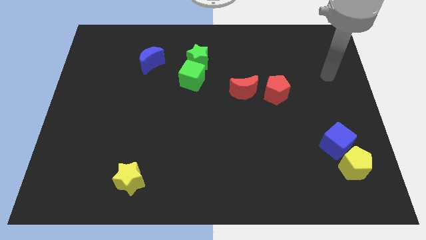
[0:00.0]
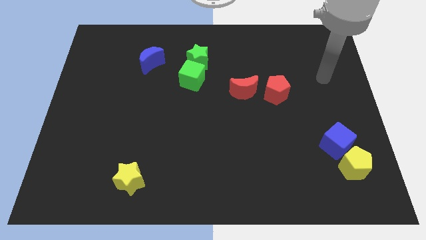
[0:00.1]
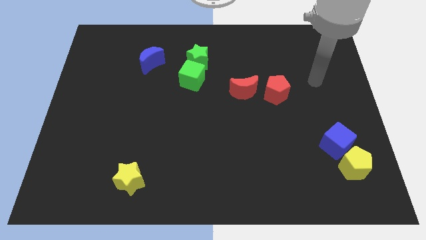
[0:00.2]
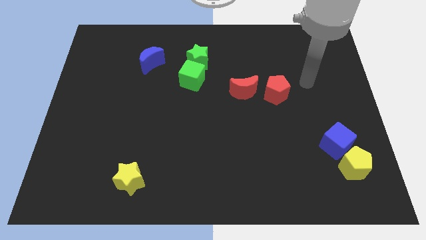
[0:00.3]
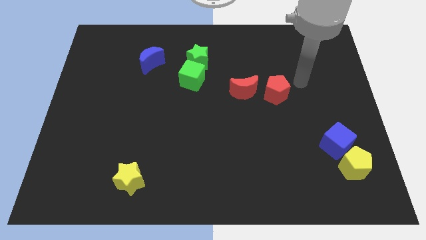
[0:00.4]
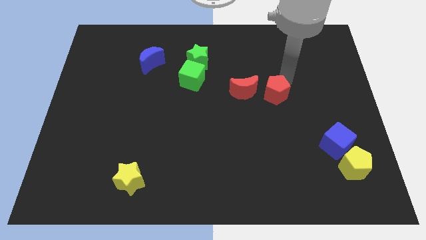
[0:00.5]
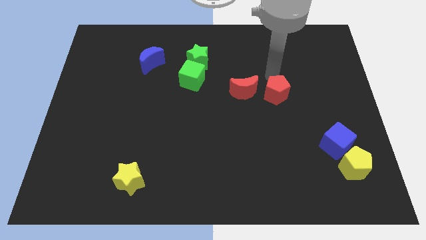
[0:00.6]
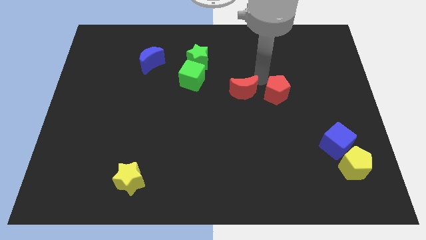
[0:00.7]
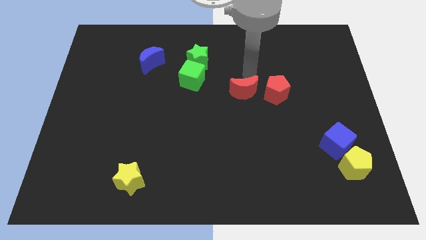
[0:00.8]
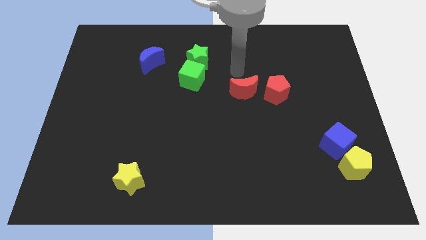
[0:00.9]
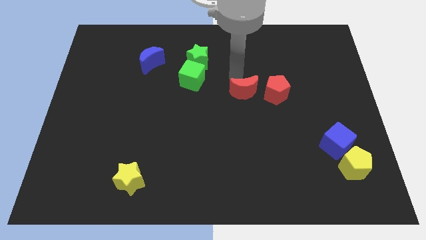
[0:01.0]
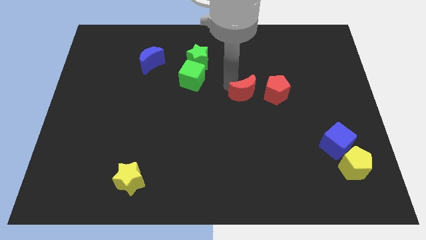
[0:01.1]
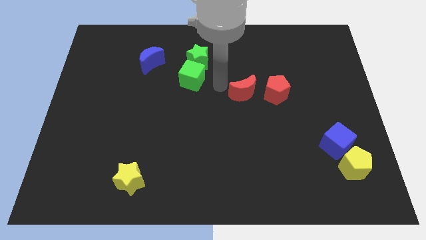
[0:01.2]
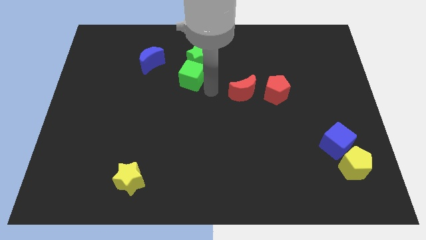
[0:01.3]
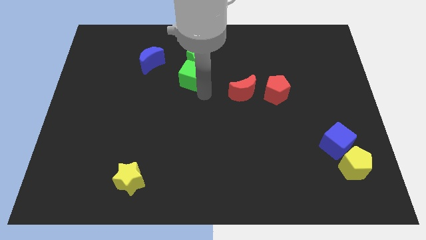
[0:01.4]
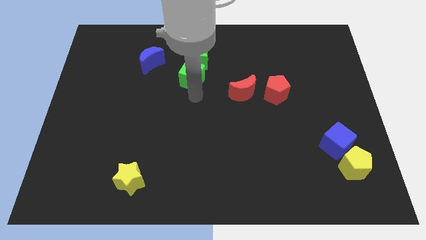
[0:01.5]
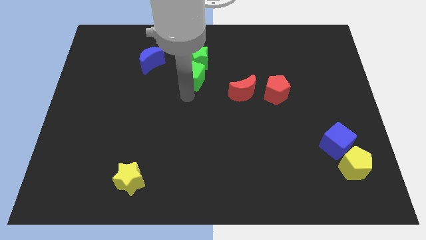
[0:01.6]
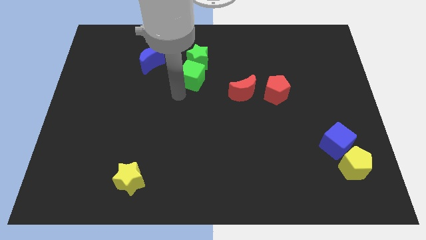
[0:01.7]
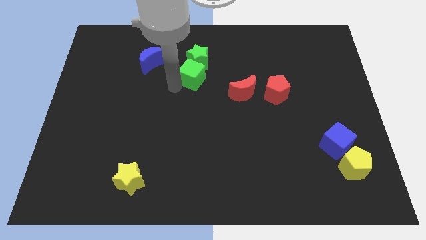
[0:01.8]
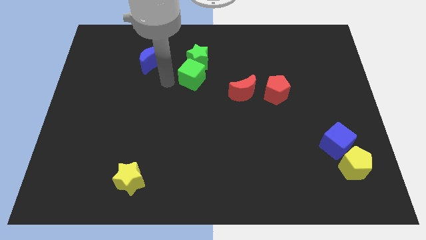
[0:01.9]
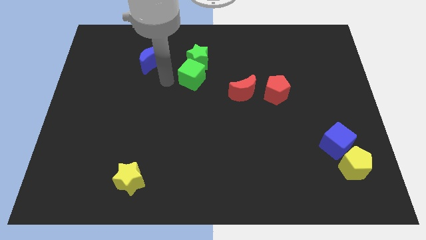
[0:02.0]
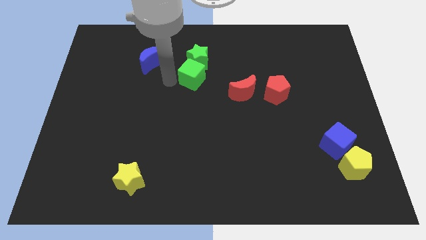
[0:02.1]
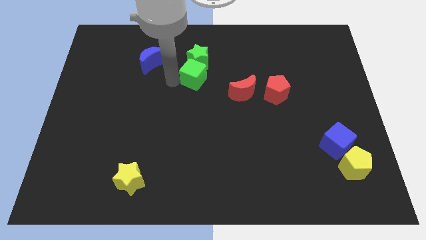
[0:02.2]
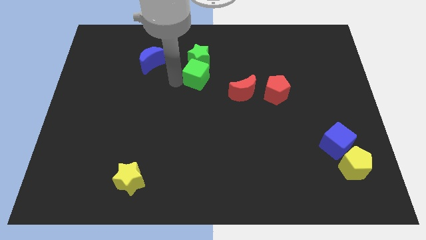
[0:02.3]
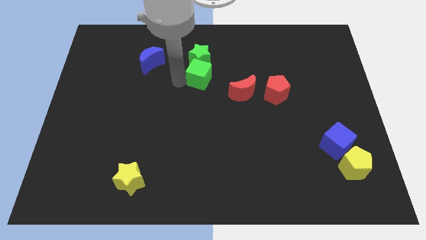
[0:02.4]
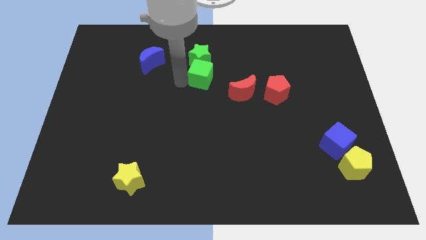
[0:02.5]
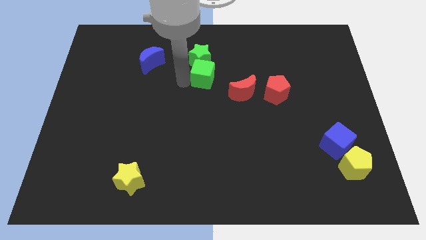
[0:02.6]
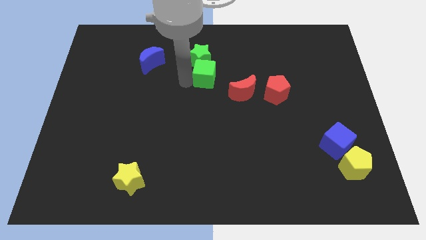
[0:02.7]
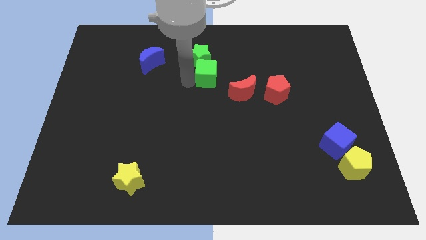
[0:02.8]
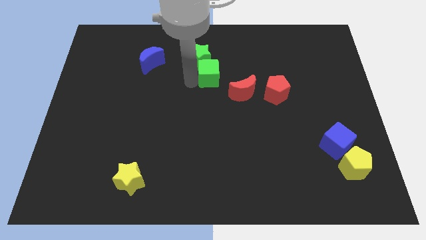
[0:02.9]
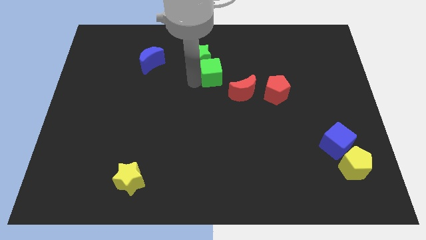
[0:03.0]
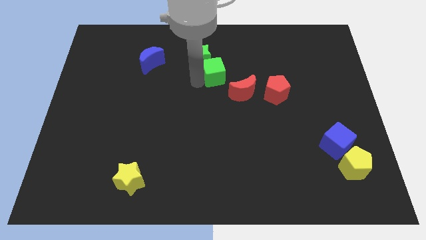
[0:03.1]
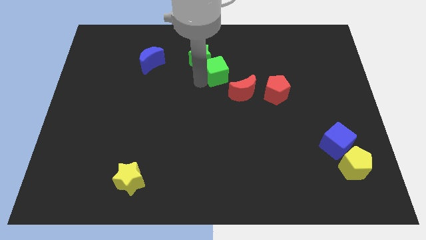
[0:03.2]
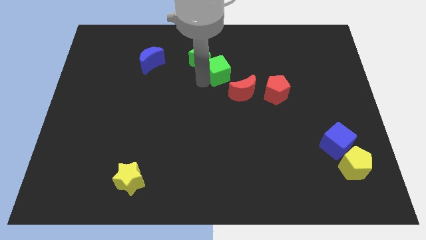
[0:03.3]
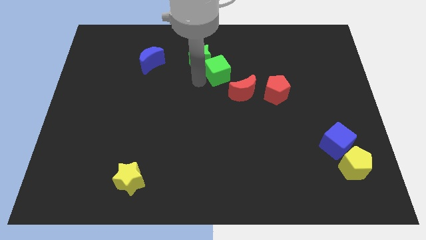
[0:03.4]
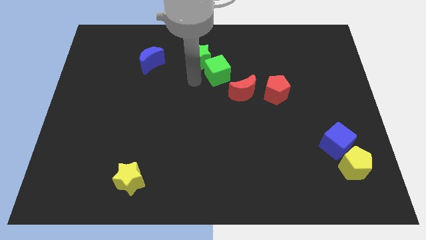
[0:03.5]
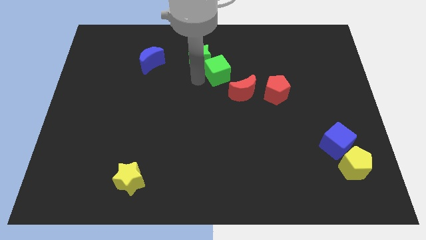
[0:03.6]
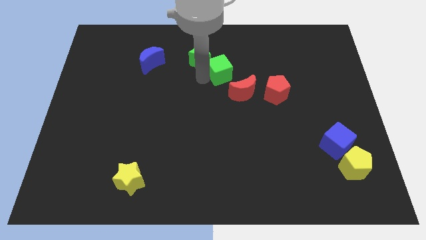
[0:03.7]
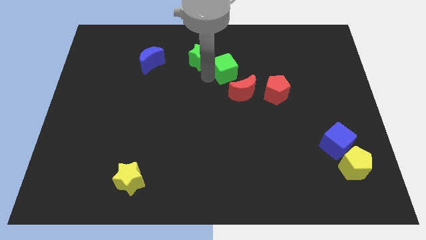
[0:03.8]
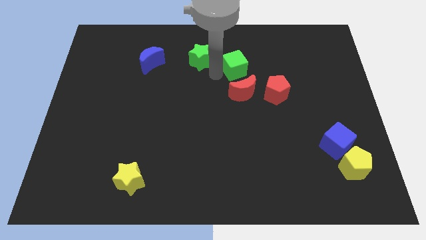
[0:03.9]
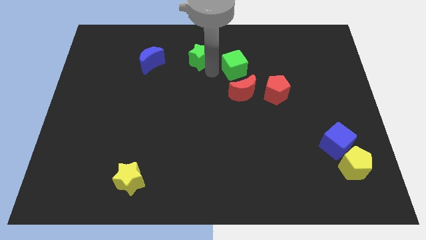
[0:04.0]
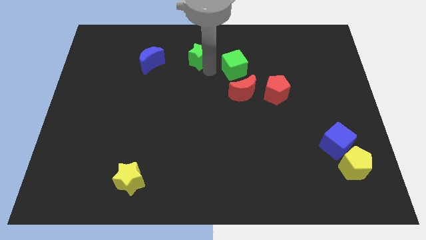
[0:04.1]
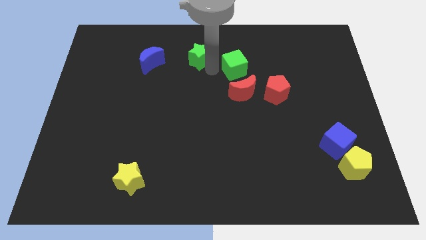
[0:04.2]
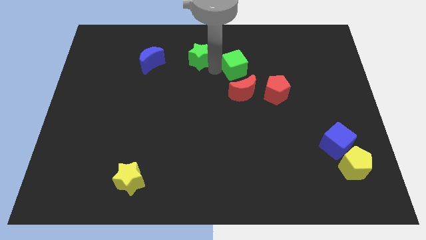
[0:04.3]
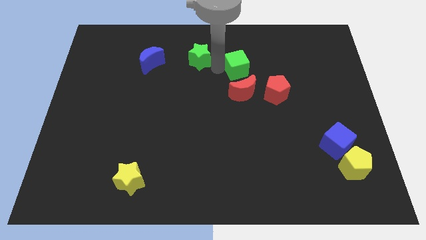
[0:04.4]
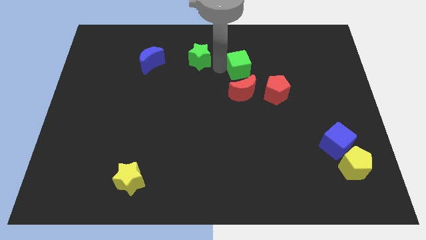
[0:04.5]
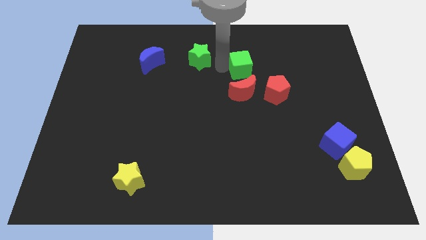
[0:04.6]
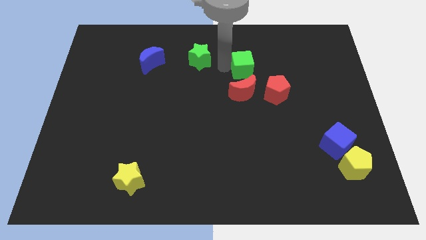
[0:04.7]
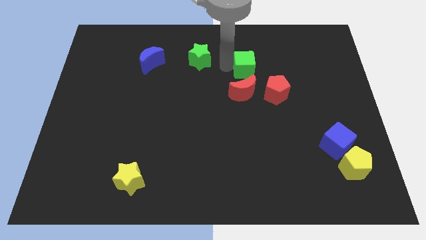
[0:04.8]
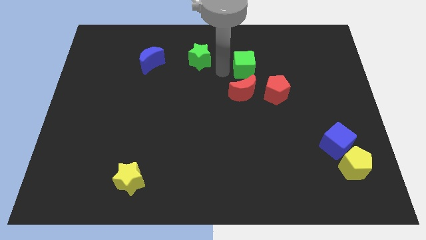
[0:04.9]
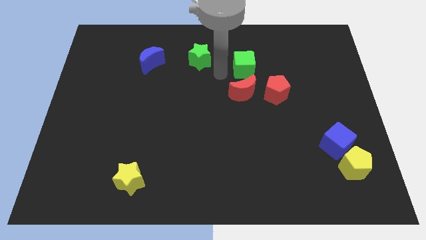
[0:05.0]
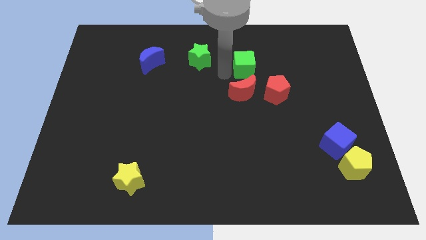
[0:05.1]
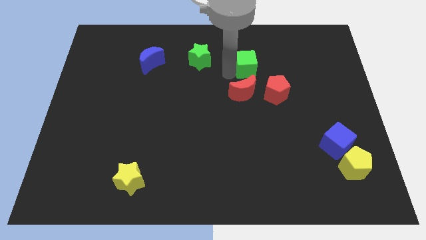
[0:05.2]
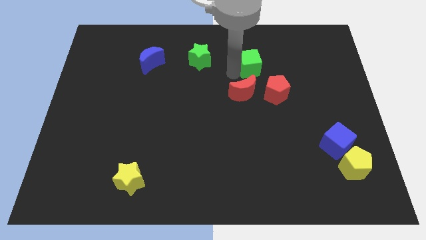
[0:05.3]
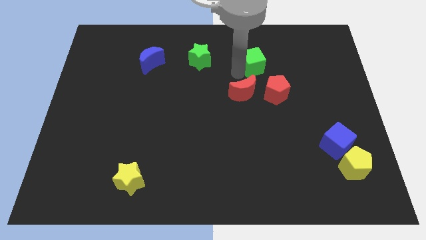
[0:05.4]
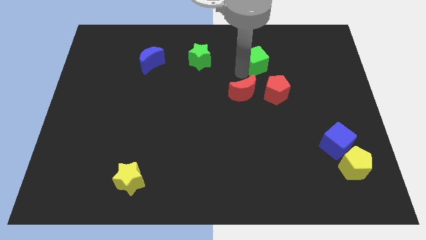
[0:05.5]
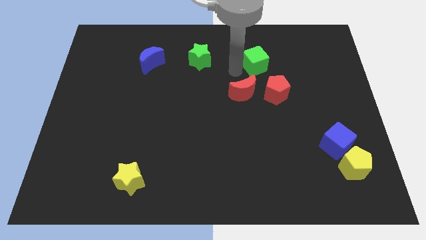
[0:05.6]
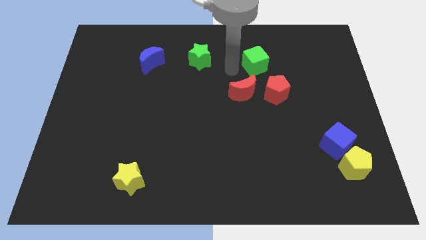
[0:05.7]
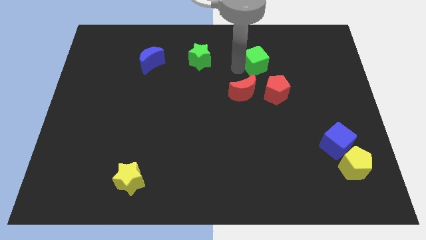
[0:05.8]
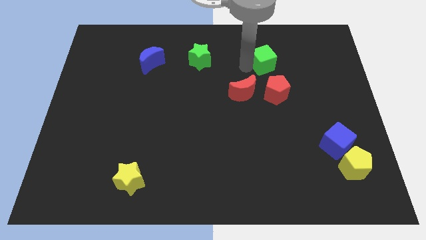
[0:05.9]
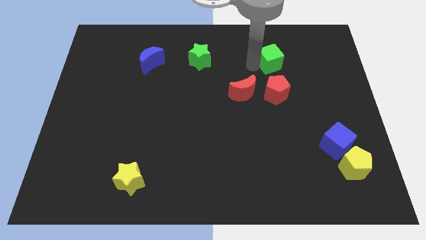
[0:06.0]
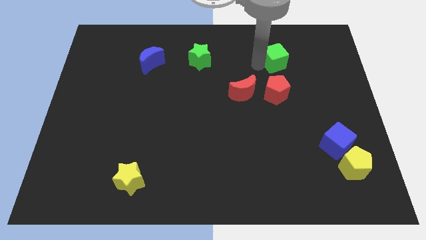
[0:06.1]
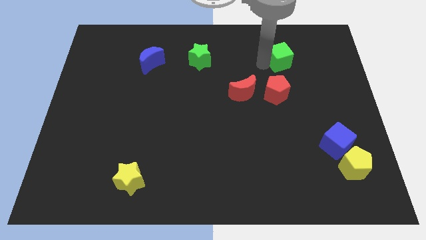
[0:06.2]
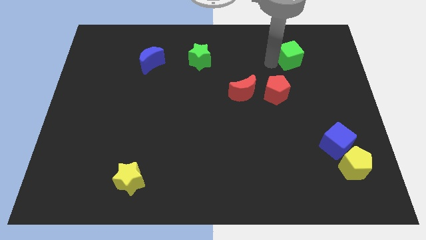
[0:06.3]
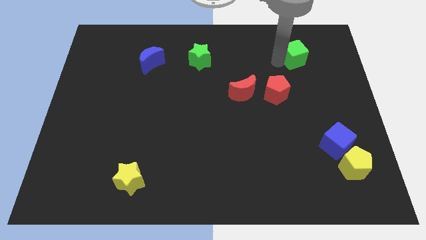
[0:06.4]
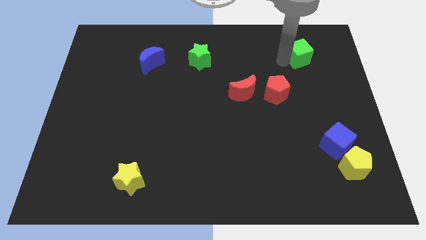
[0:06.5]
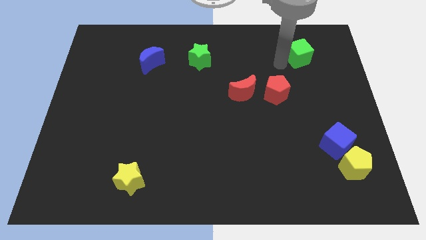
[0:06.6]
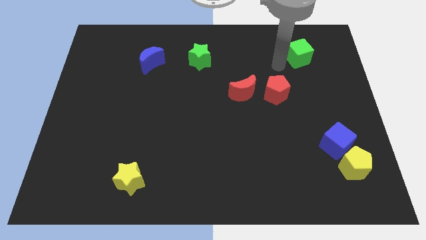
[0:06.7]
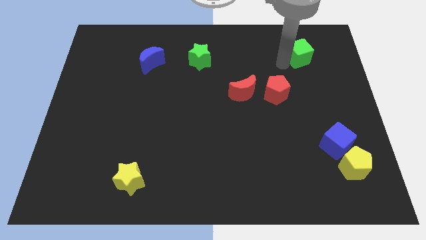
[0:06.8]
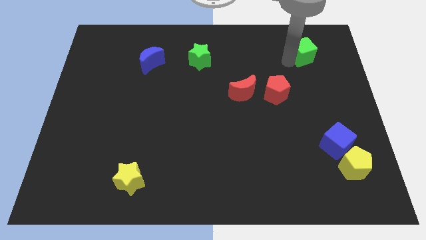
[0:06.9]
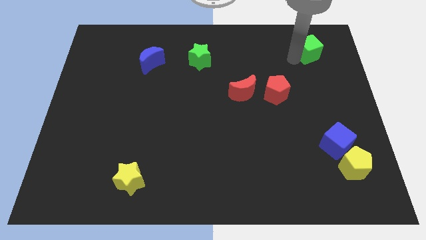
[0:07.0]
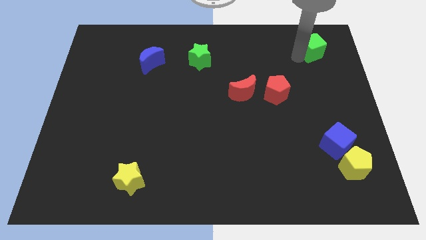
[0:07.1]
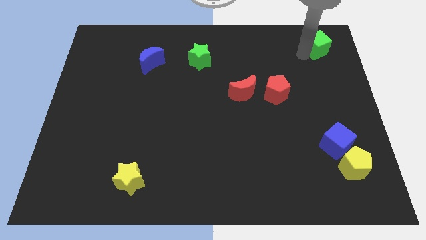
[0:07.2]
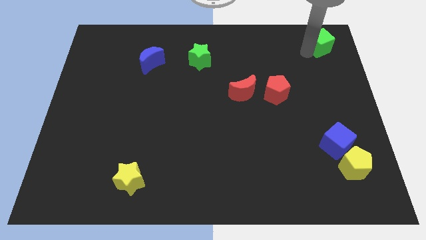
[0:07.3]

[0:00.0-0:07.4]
slide the green cube to the top right corner
